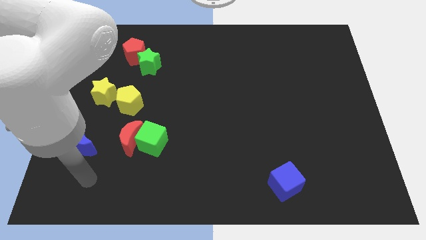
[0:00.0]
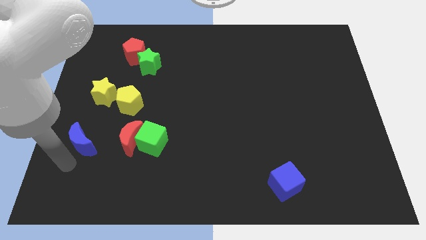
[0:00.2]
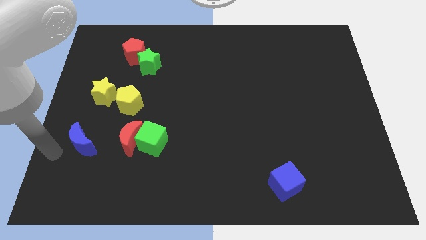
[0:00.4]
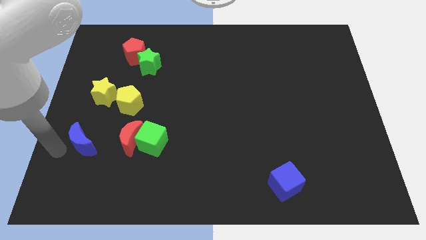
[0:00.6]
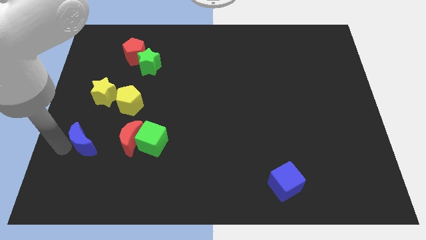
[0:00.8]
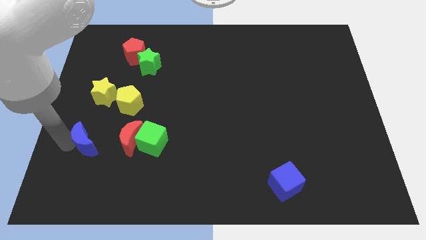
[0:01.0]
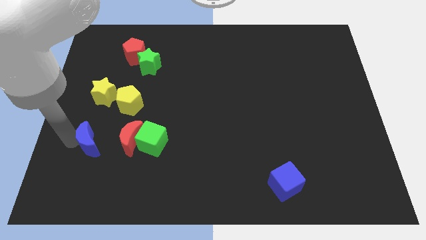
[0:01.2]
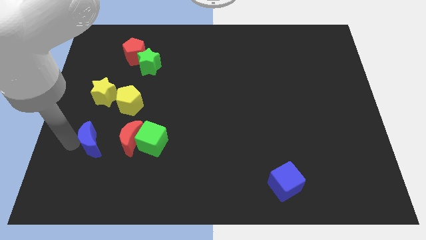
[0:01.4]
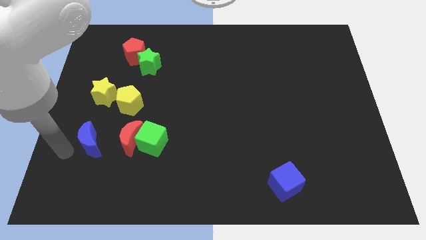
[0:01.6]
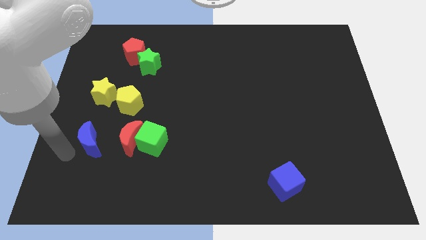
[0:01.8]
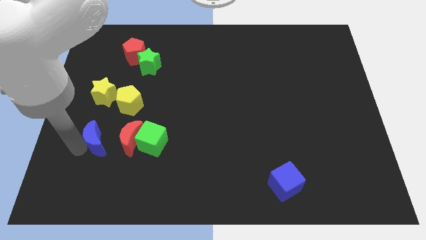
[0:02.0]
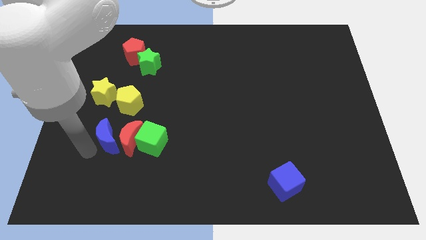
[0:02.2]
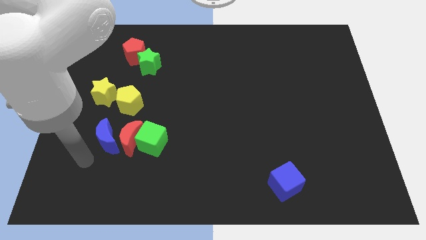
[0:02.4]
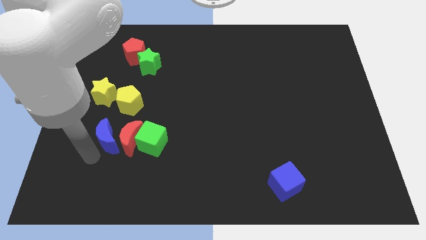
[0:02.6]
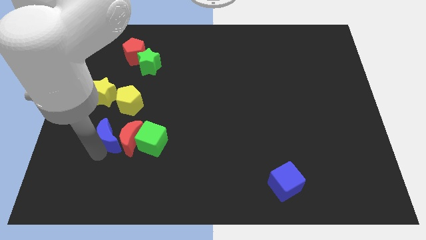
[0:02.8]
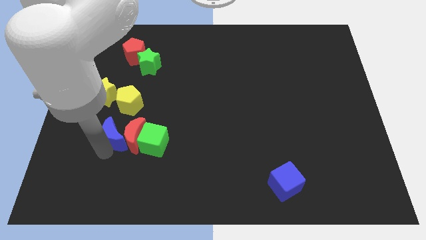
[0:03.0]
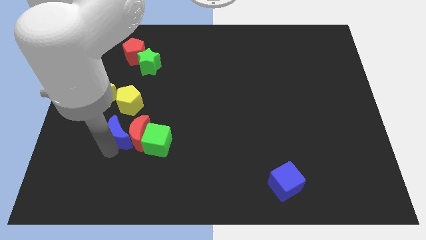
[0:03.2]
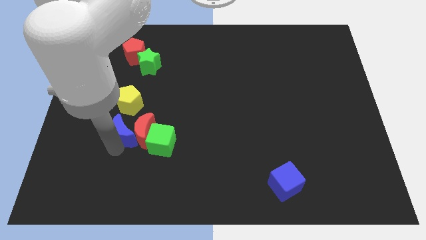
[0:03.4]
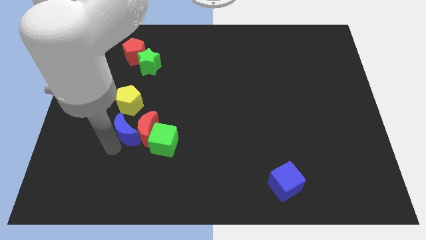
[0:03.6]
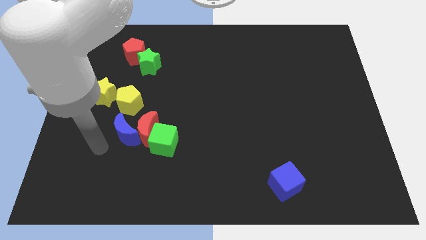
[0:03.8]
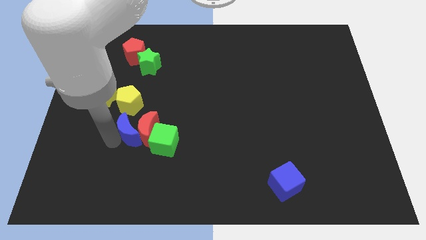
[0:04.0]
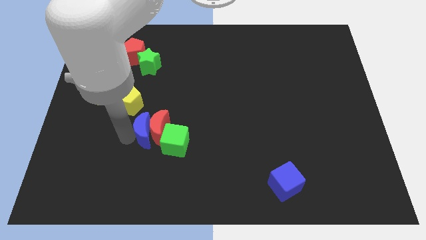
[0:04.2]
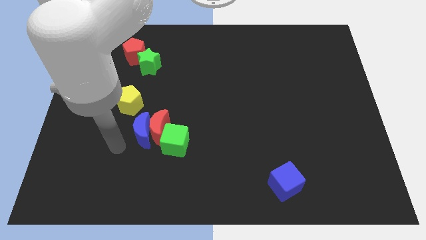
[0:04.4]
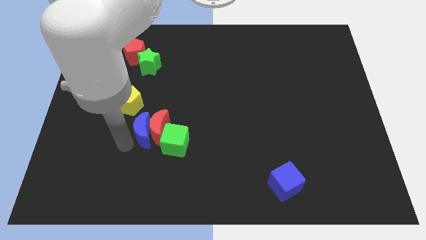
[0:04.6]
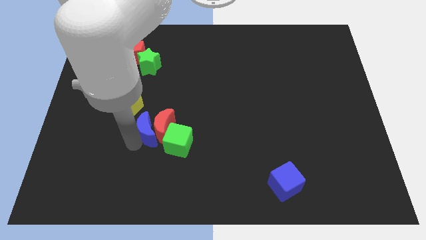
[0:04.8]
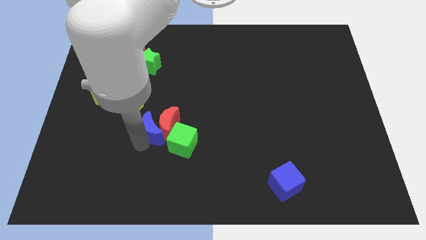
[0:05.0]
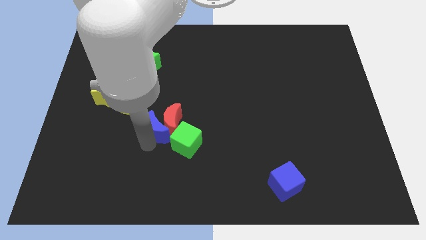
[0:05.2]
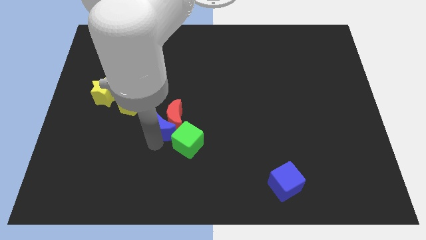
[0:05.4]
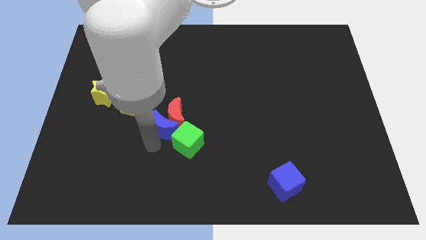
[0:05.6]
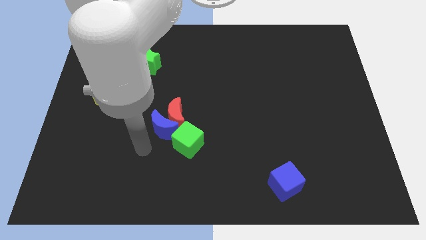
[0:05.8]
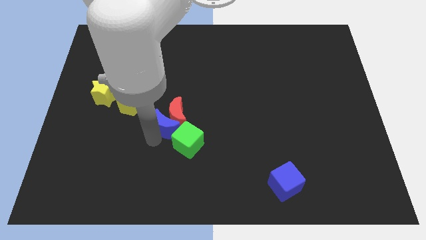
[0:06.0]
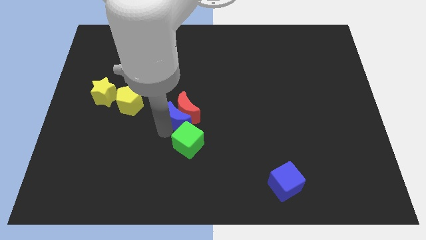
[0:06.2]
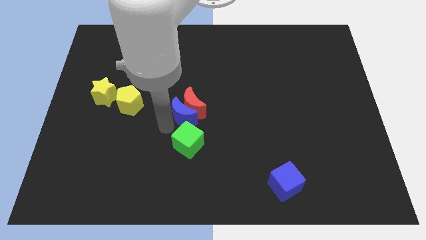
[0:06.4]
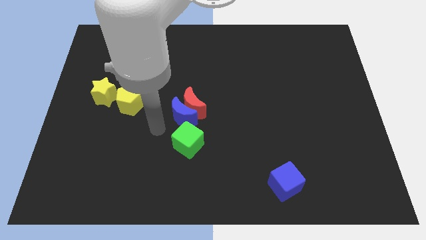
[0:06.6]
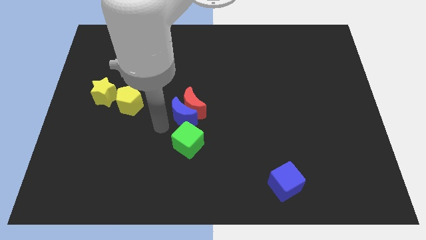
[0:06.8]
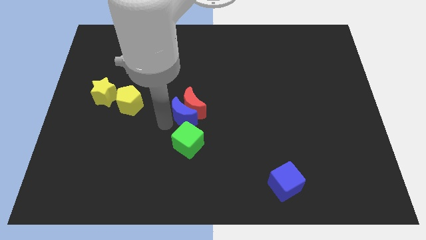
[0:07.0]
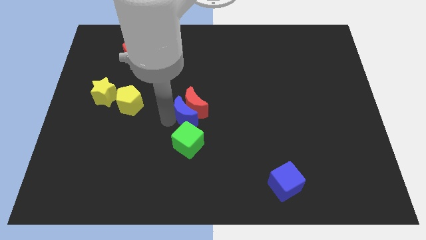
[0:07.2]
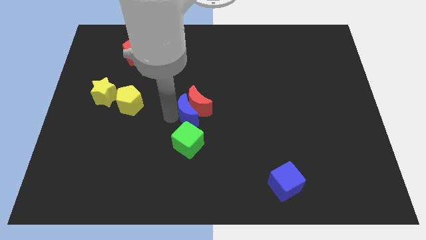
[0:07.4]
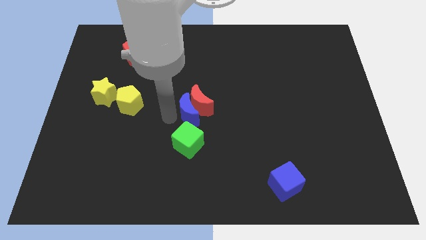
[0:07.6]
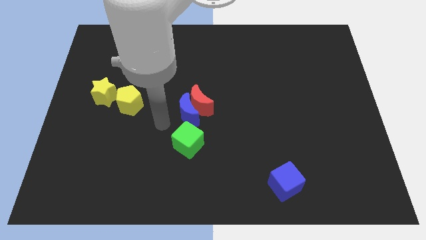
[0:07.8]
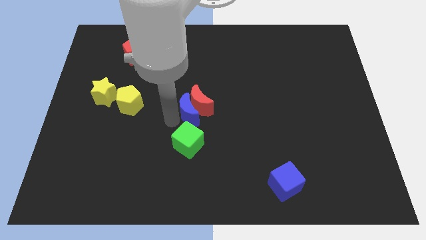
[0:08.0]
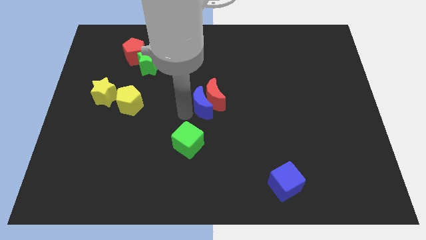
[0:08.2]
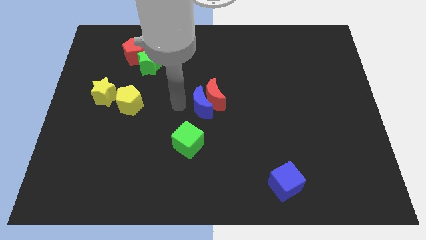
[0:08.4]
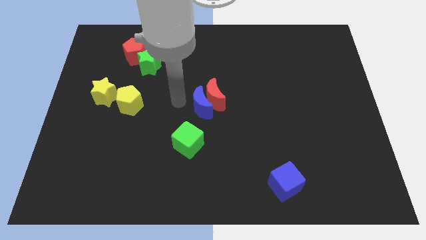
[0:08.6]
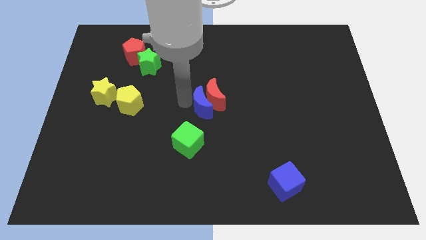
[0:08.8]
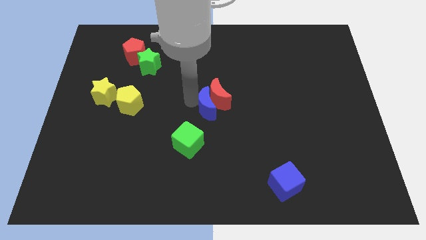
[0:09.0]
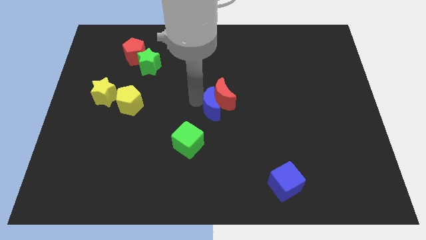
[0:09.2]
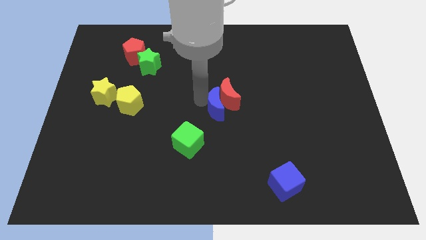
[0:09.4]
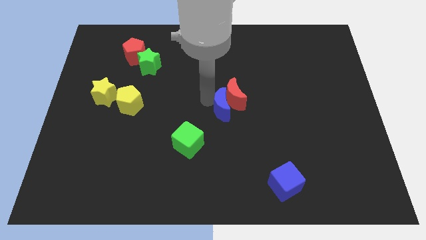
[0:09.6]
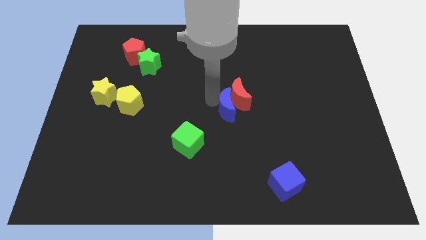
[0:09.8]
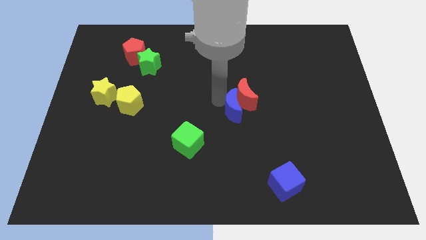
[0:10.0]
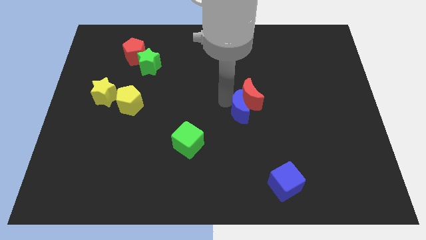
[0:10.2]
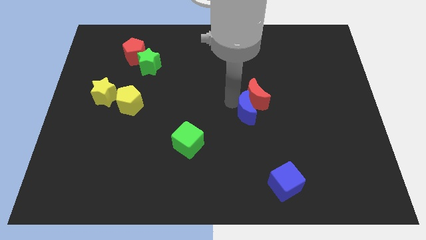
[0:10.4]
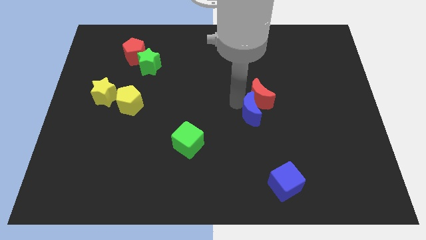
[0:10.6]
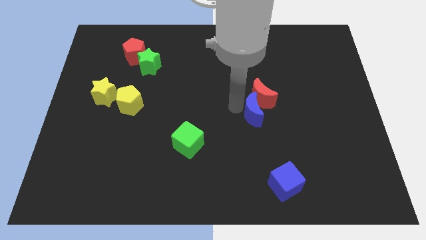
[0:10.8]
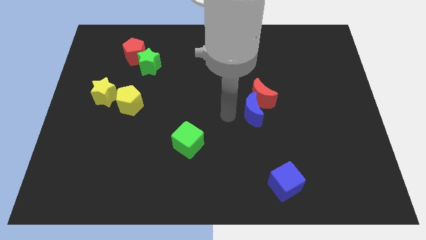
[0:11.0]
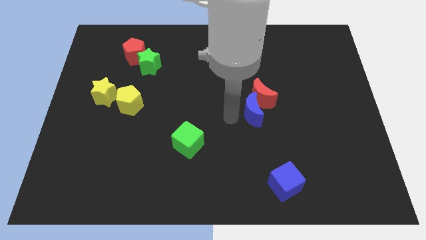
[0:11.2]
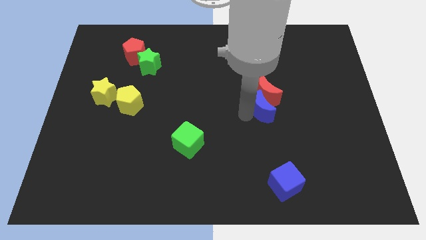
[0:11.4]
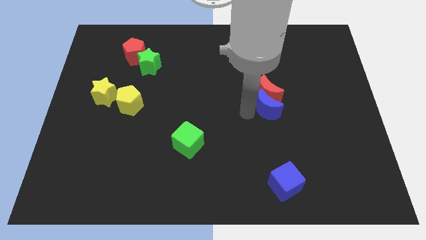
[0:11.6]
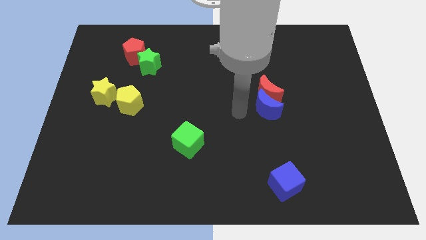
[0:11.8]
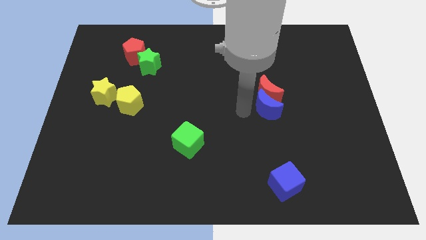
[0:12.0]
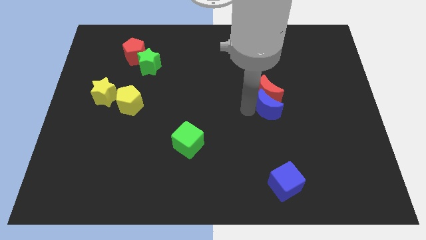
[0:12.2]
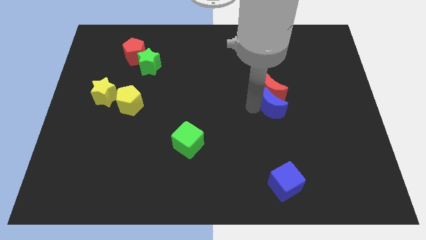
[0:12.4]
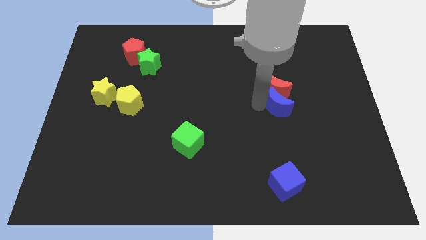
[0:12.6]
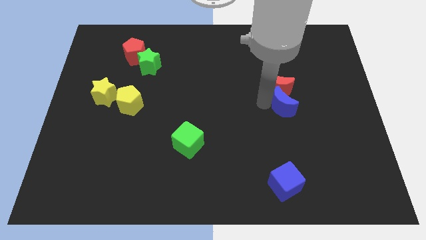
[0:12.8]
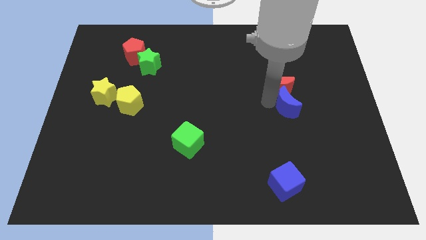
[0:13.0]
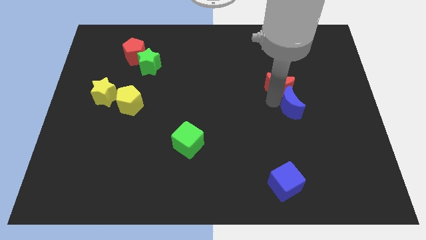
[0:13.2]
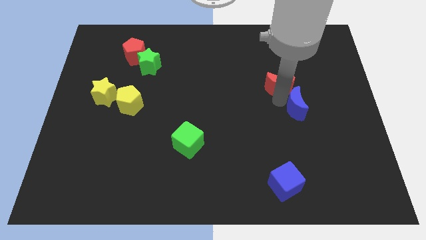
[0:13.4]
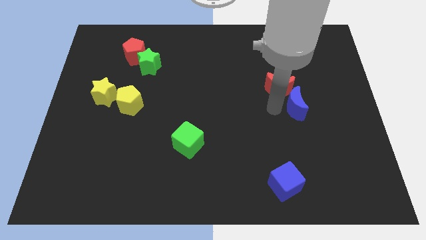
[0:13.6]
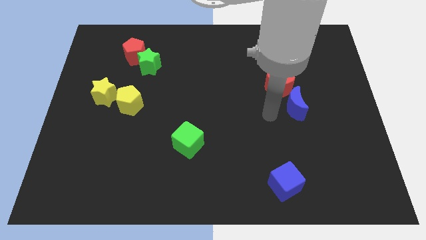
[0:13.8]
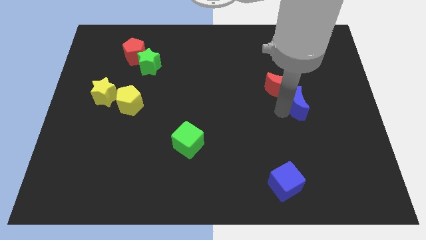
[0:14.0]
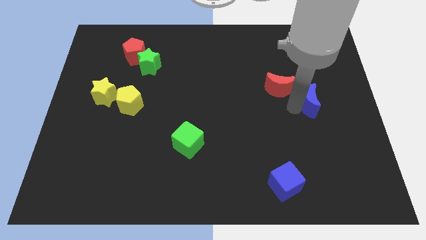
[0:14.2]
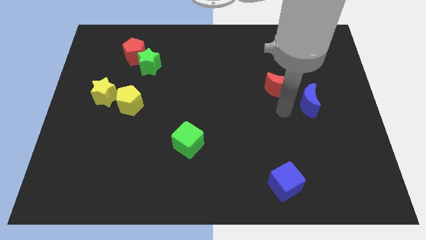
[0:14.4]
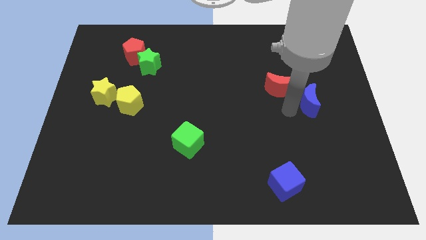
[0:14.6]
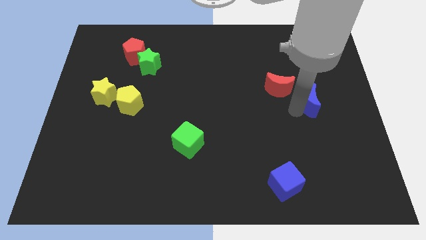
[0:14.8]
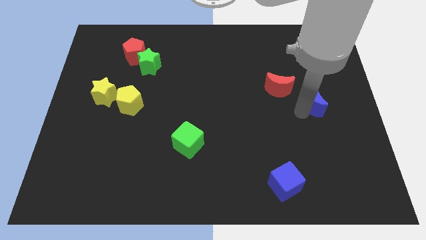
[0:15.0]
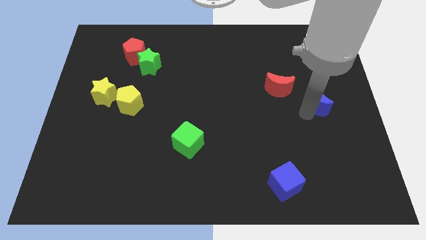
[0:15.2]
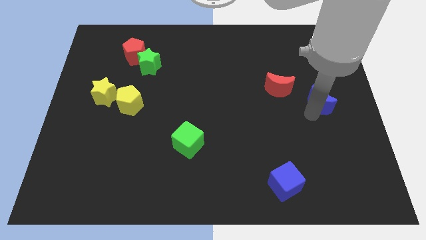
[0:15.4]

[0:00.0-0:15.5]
push the blue moon to the center right
